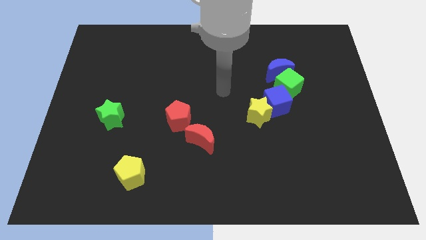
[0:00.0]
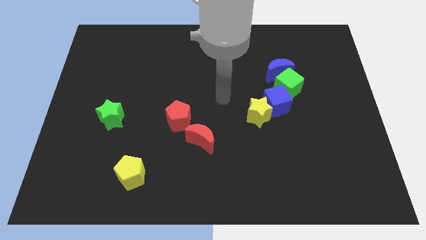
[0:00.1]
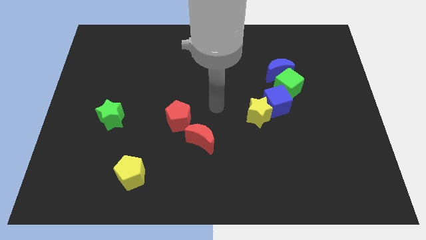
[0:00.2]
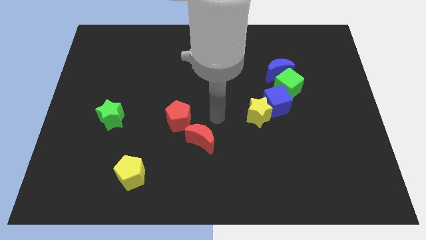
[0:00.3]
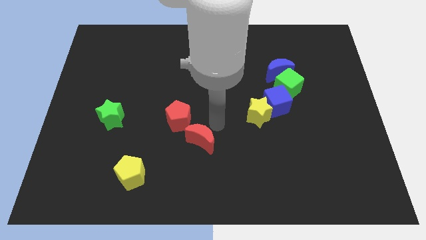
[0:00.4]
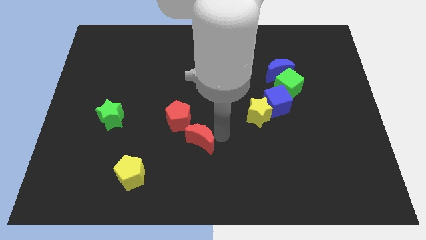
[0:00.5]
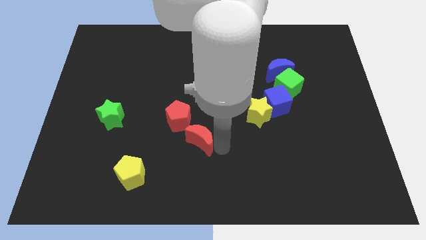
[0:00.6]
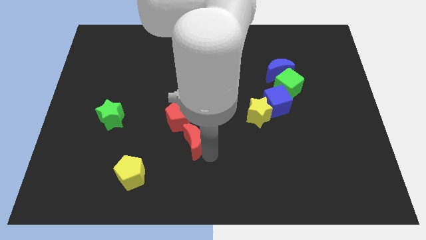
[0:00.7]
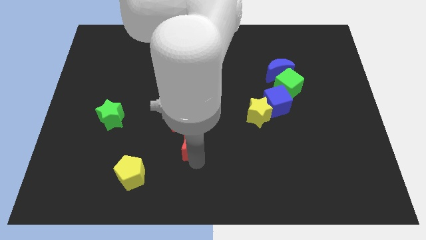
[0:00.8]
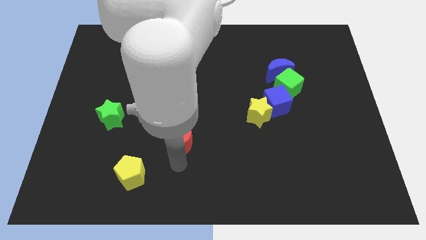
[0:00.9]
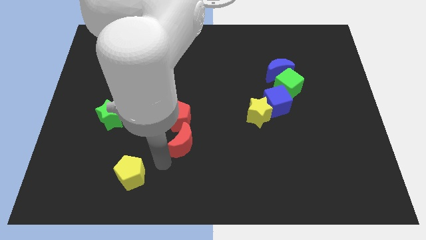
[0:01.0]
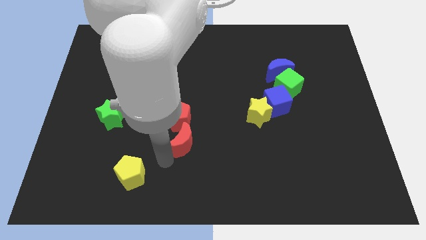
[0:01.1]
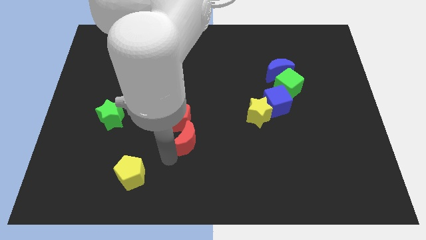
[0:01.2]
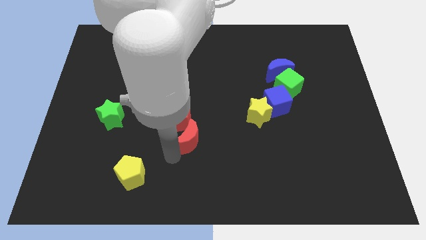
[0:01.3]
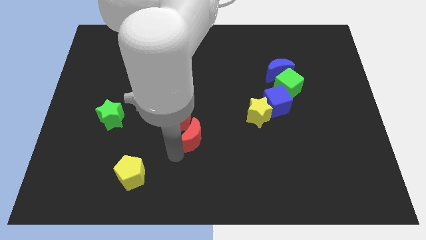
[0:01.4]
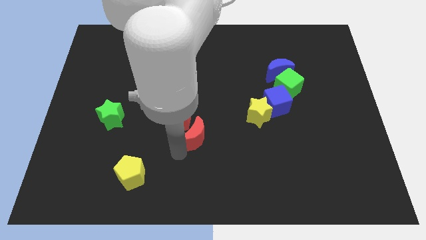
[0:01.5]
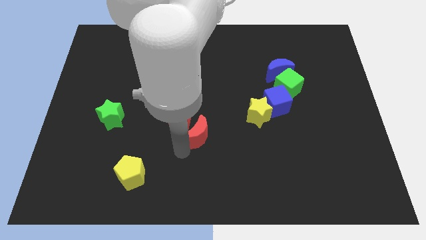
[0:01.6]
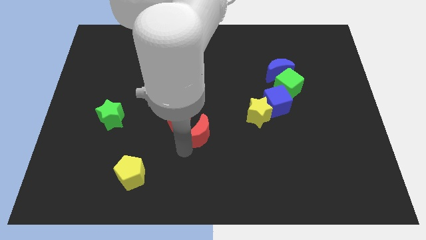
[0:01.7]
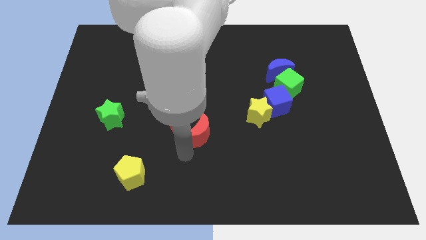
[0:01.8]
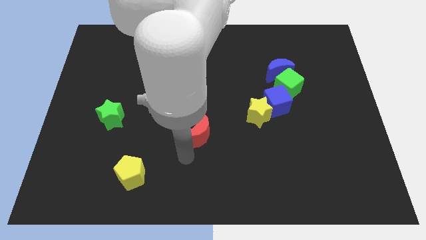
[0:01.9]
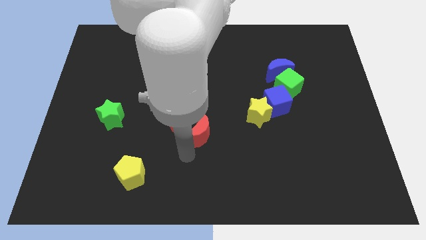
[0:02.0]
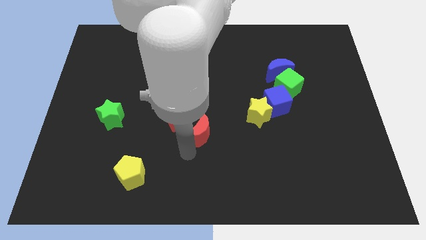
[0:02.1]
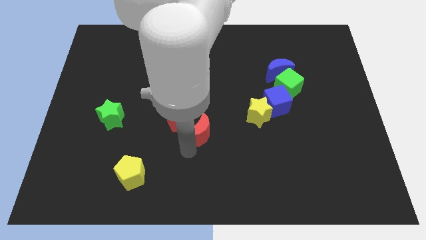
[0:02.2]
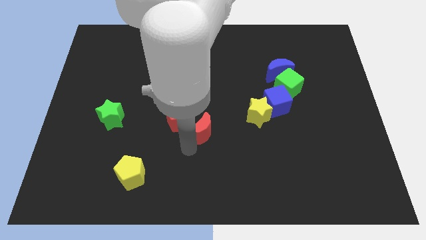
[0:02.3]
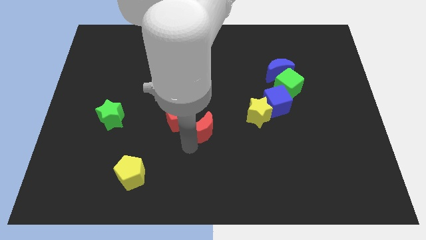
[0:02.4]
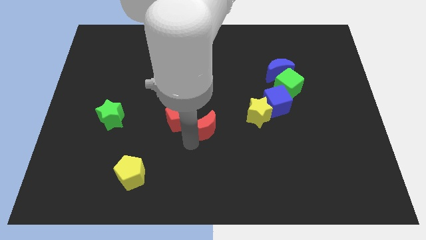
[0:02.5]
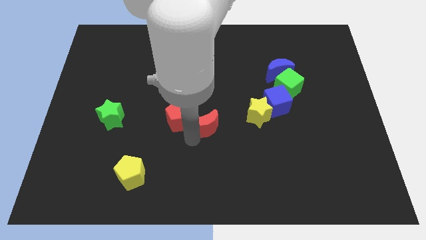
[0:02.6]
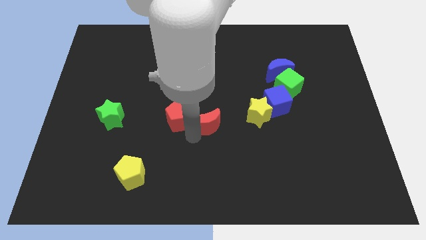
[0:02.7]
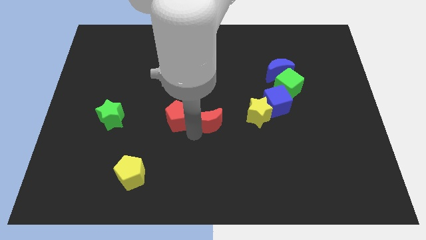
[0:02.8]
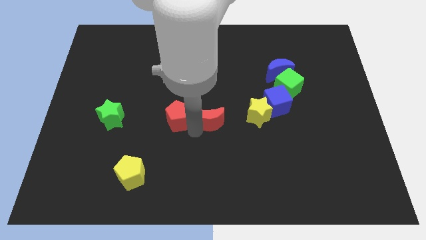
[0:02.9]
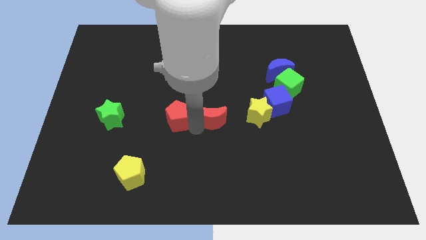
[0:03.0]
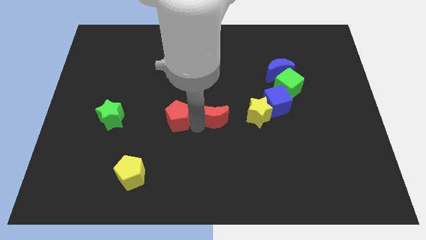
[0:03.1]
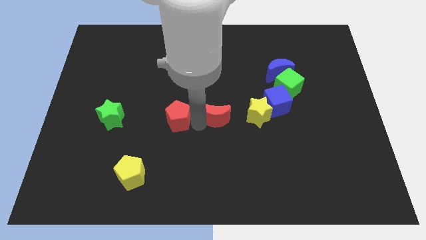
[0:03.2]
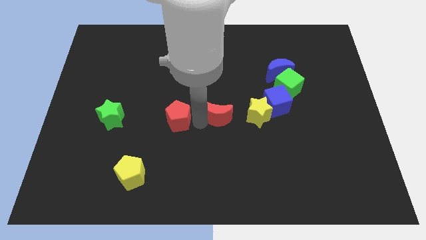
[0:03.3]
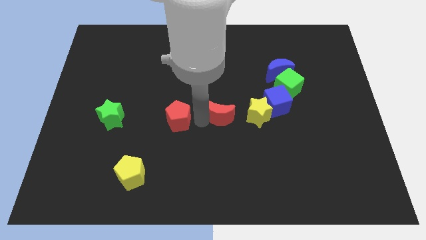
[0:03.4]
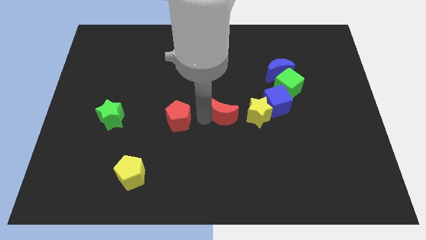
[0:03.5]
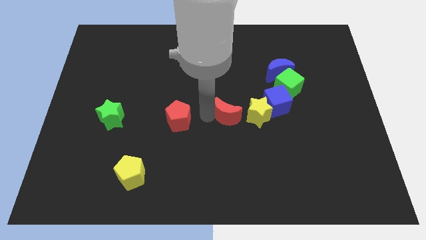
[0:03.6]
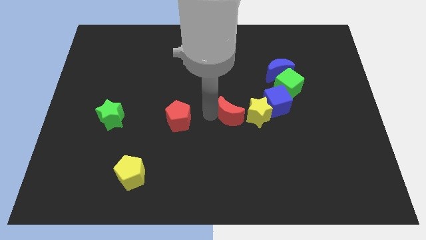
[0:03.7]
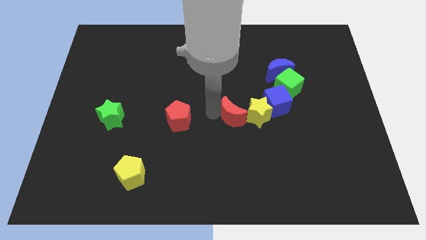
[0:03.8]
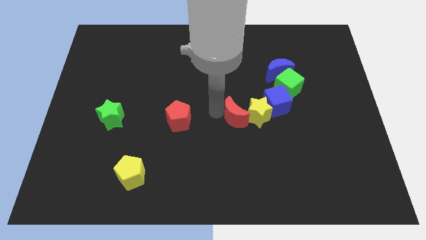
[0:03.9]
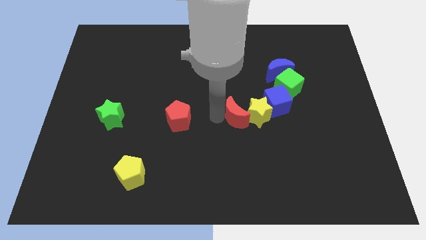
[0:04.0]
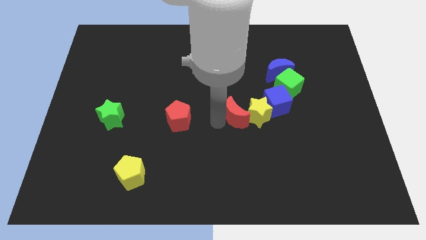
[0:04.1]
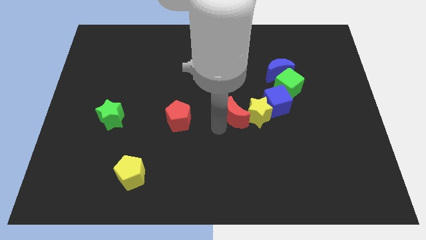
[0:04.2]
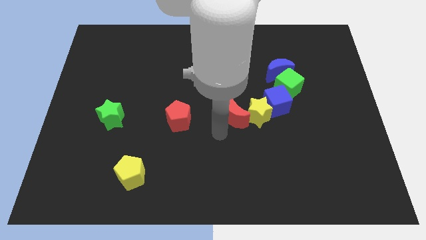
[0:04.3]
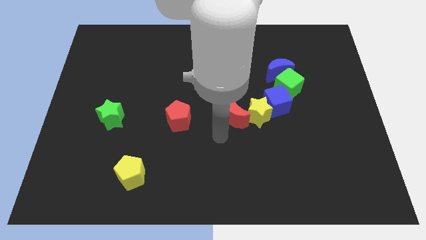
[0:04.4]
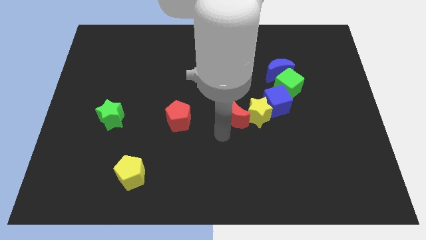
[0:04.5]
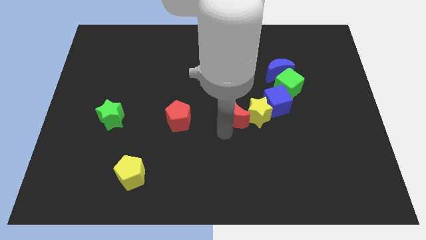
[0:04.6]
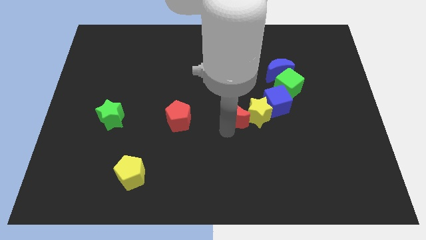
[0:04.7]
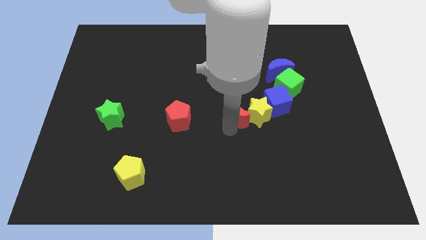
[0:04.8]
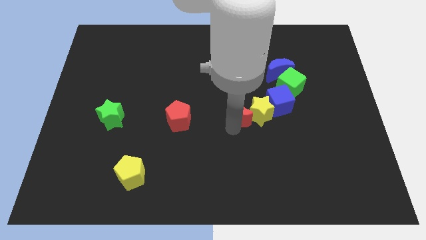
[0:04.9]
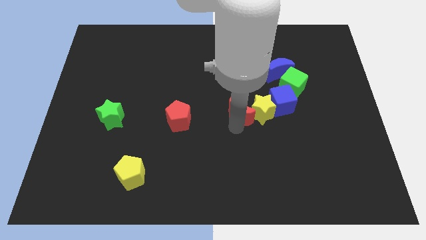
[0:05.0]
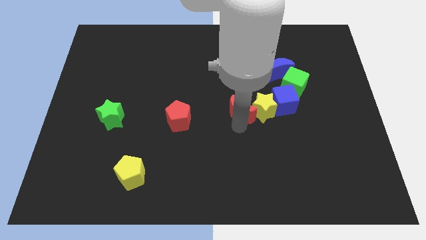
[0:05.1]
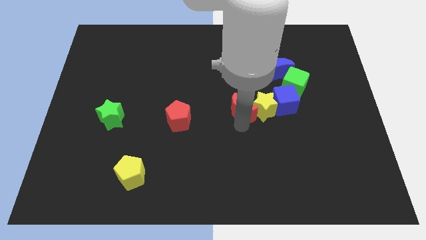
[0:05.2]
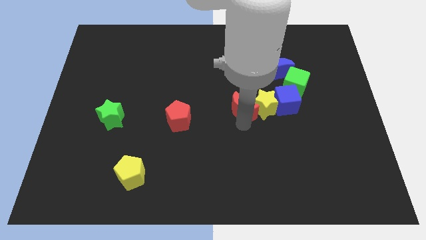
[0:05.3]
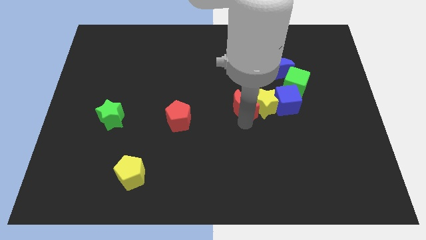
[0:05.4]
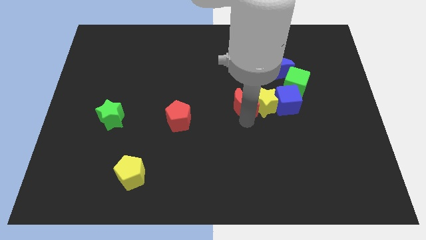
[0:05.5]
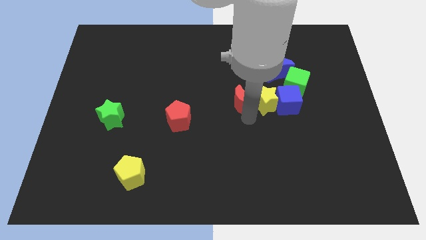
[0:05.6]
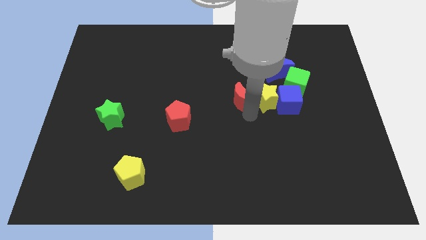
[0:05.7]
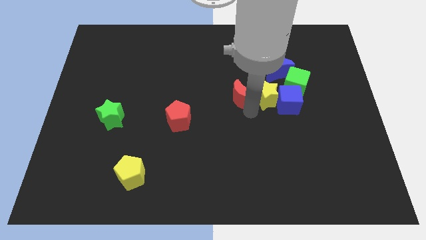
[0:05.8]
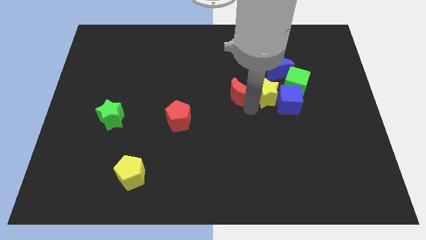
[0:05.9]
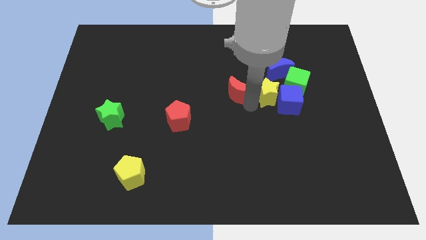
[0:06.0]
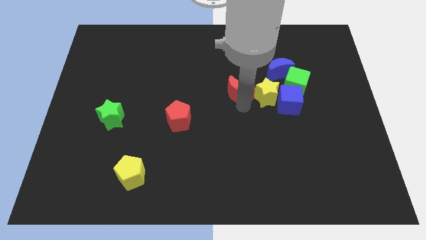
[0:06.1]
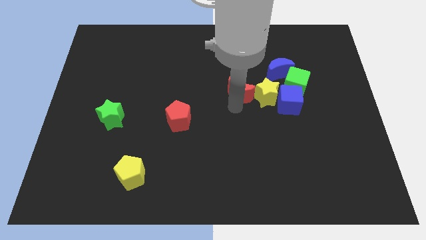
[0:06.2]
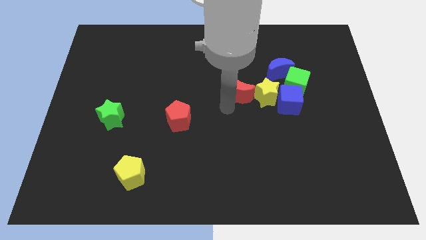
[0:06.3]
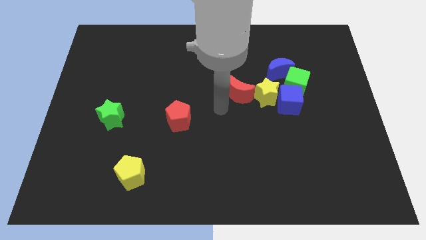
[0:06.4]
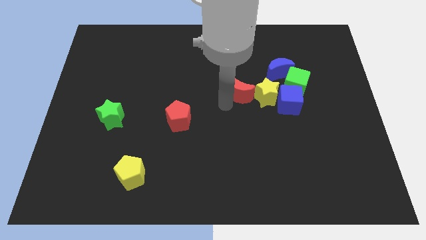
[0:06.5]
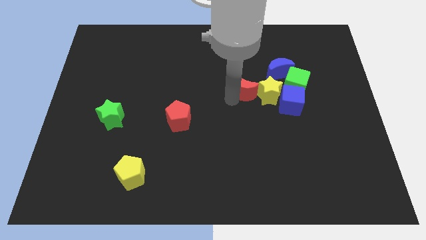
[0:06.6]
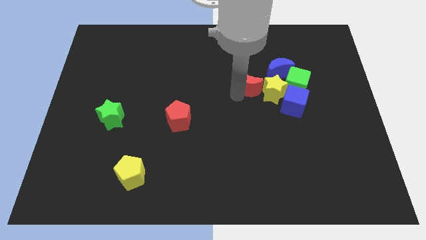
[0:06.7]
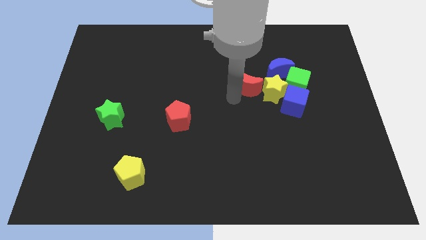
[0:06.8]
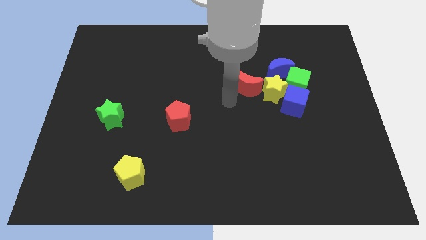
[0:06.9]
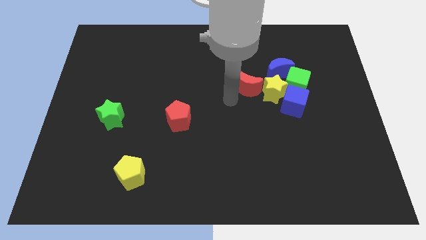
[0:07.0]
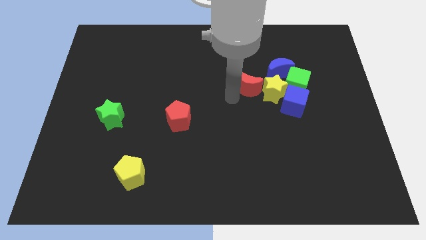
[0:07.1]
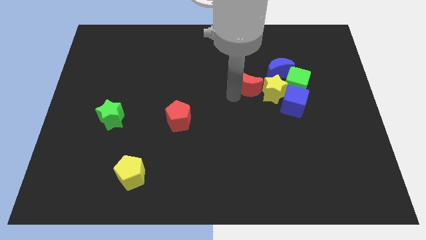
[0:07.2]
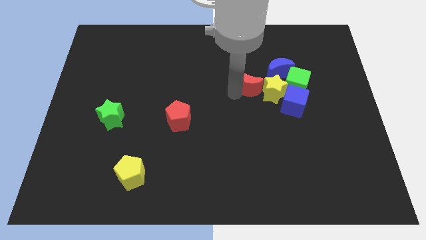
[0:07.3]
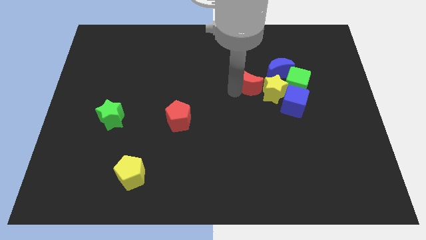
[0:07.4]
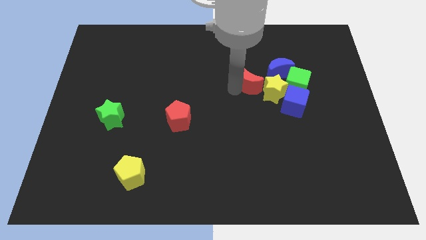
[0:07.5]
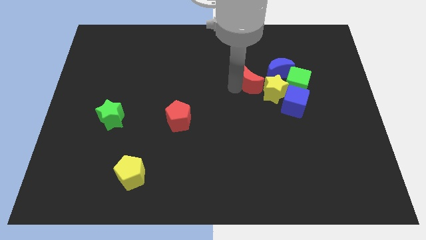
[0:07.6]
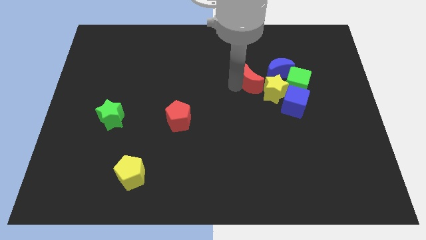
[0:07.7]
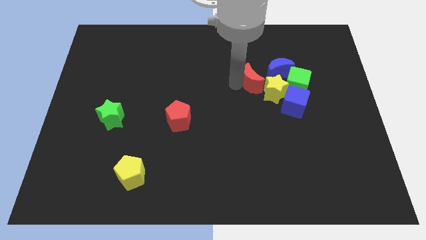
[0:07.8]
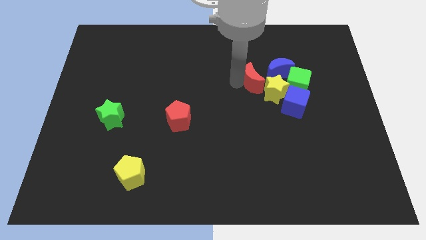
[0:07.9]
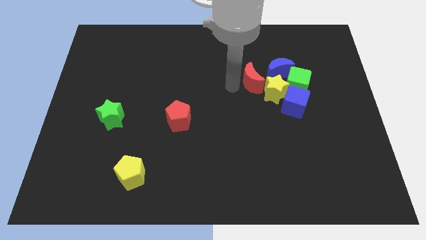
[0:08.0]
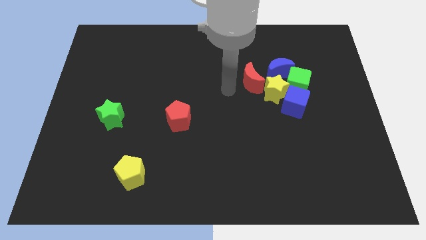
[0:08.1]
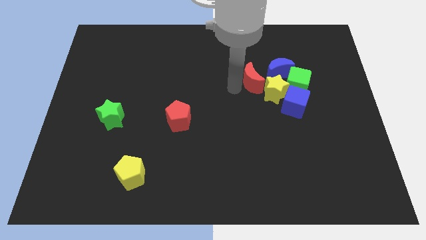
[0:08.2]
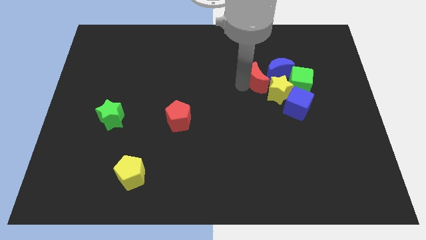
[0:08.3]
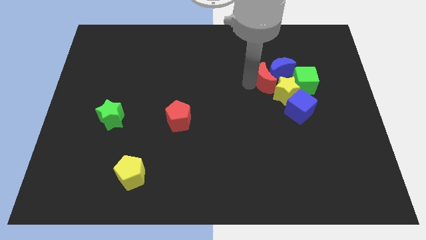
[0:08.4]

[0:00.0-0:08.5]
put the red moon to the blue moon
